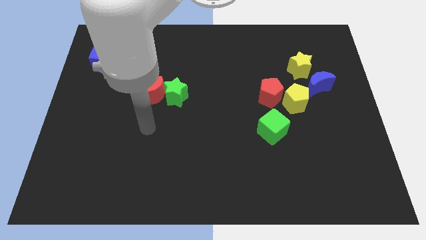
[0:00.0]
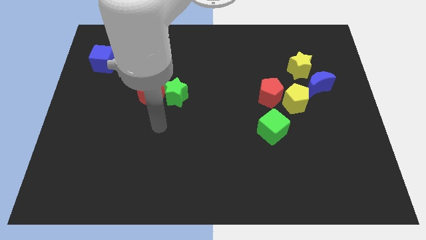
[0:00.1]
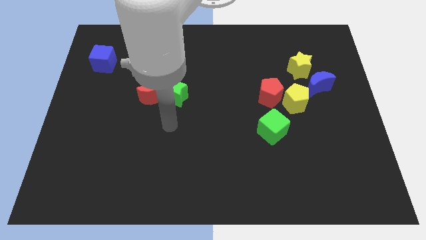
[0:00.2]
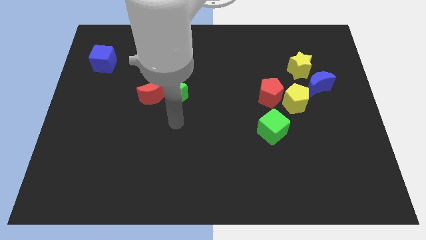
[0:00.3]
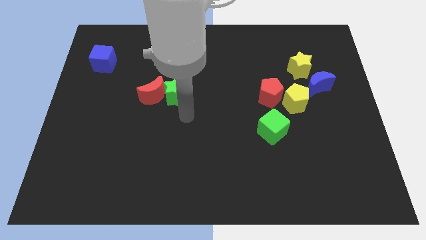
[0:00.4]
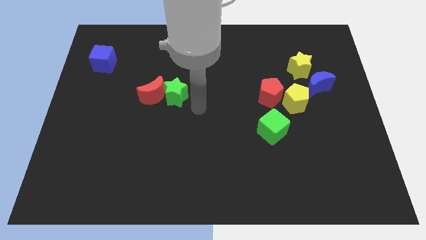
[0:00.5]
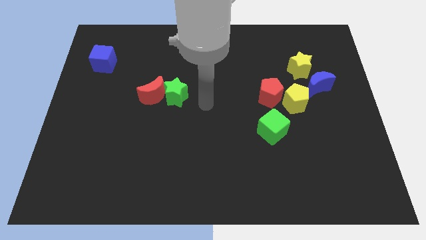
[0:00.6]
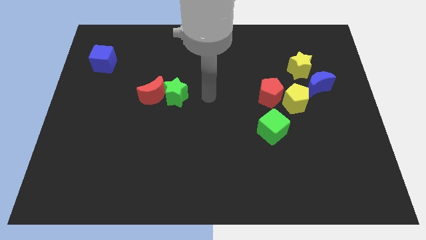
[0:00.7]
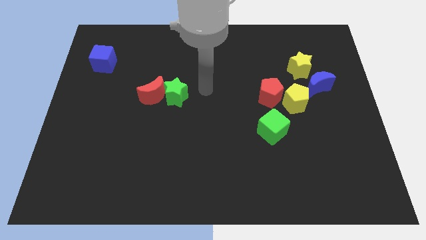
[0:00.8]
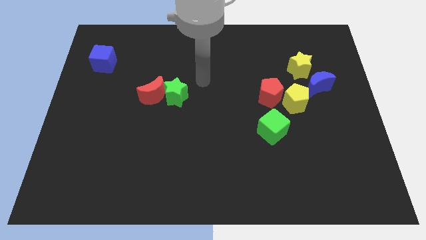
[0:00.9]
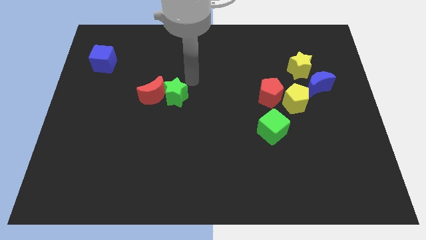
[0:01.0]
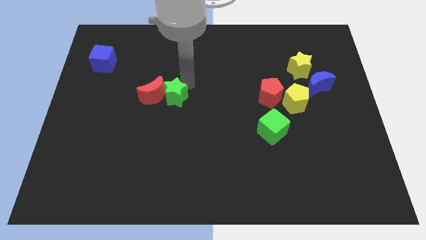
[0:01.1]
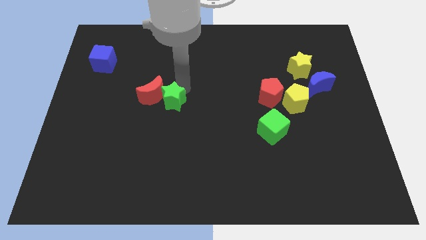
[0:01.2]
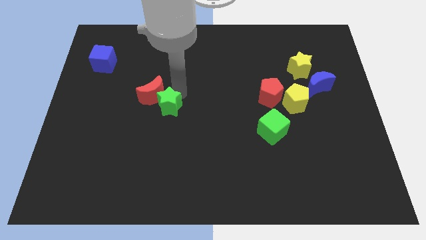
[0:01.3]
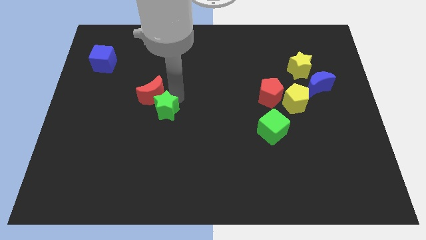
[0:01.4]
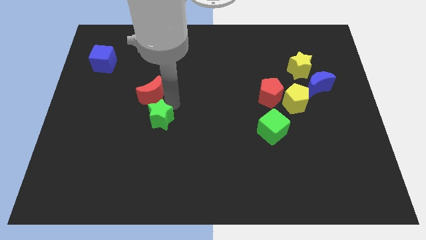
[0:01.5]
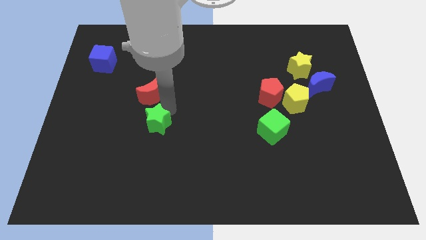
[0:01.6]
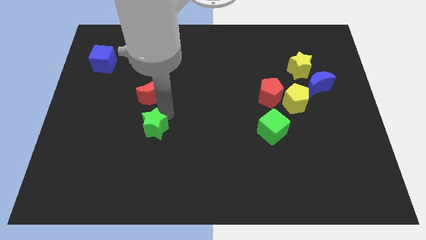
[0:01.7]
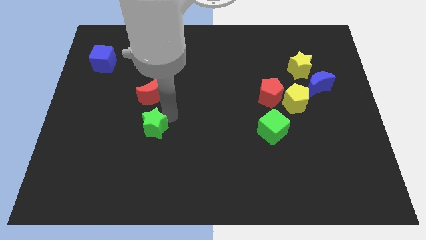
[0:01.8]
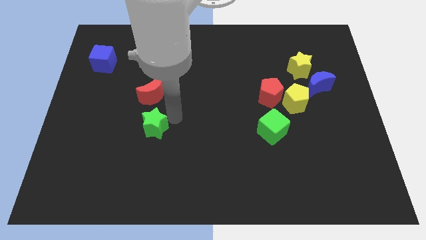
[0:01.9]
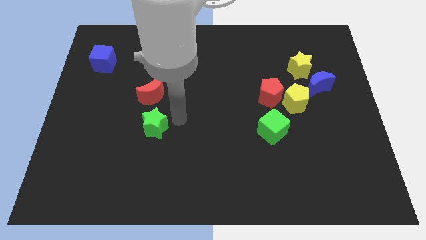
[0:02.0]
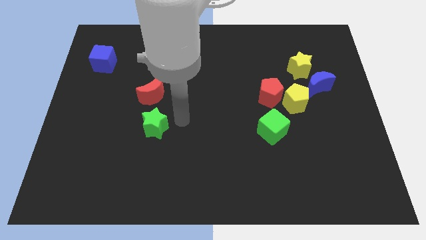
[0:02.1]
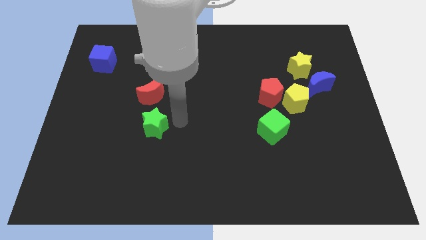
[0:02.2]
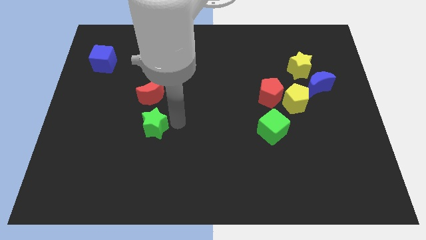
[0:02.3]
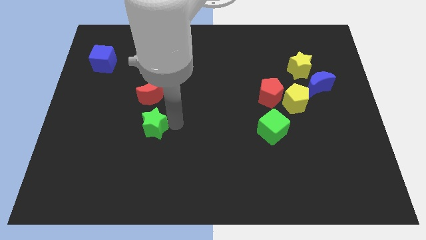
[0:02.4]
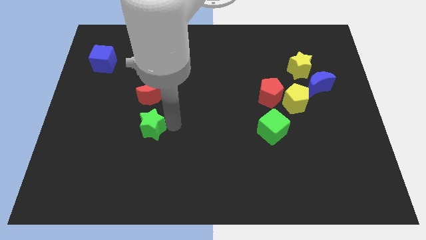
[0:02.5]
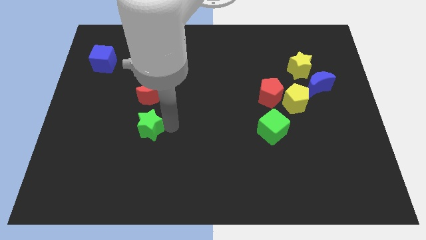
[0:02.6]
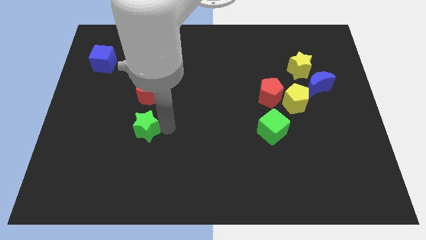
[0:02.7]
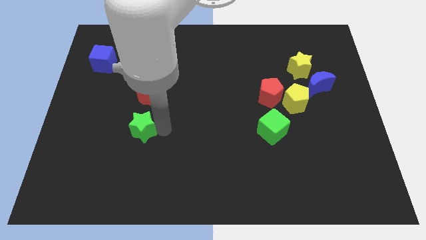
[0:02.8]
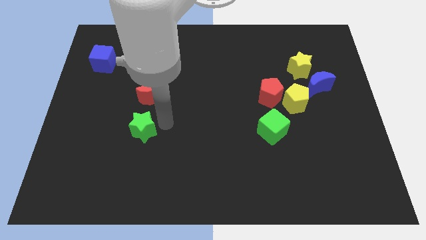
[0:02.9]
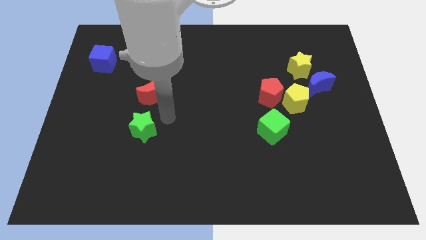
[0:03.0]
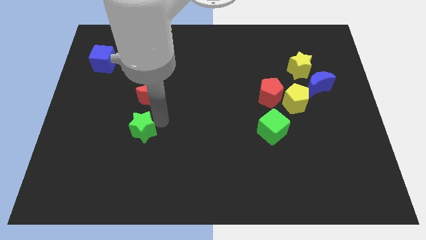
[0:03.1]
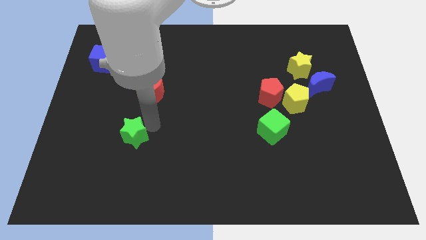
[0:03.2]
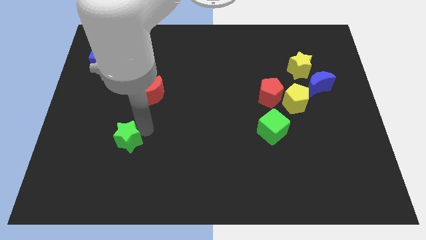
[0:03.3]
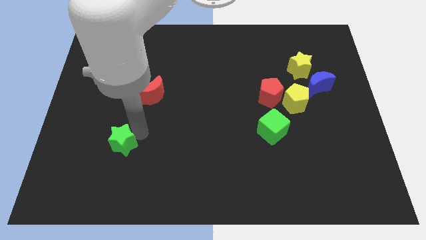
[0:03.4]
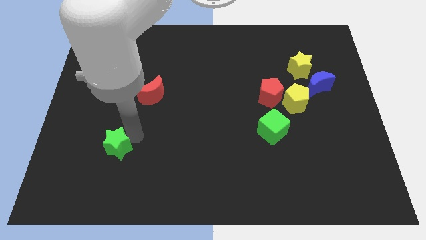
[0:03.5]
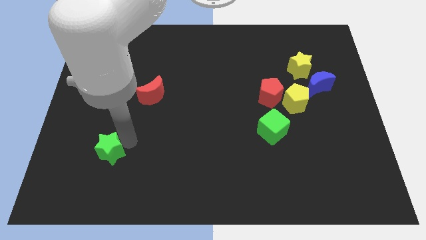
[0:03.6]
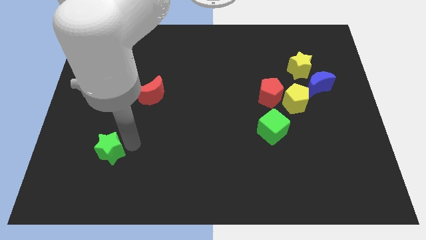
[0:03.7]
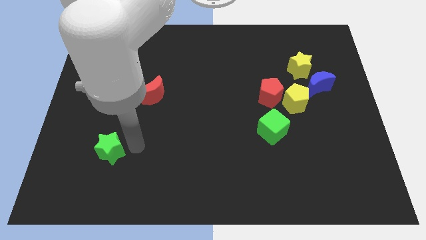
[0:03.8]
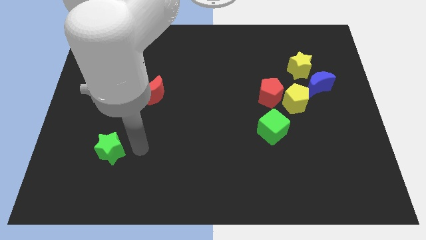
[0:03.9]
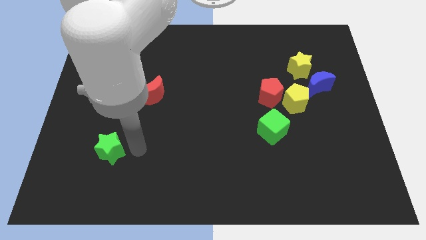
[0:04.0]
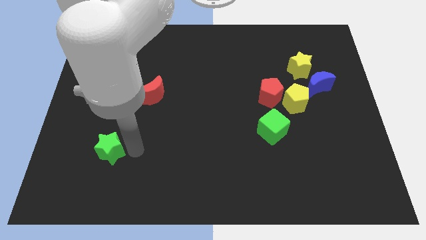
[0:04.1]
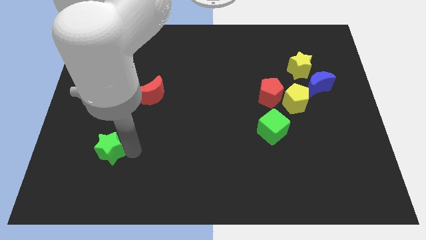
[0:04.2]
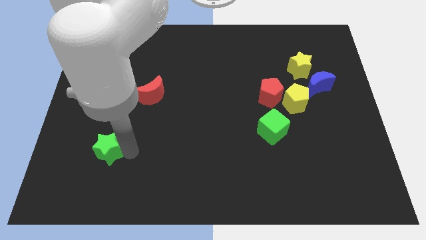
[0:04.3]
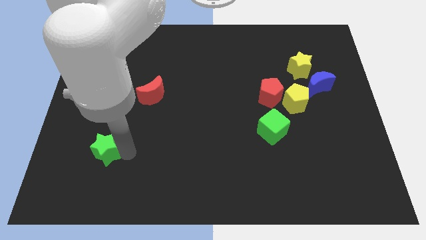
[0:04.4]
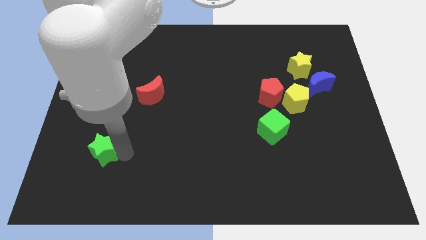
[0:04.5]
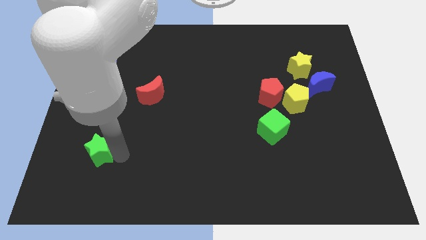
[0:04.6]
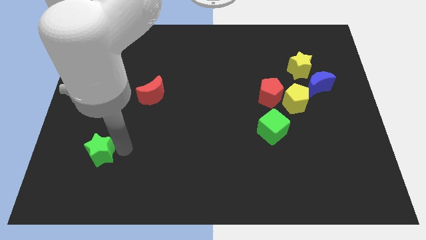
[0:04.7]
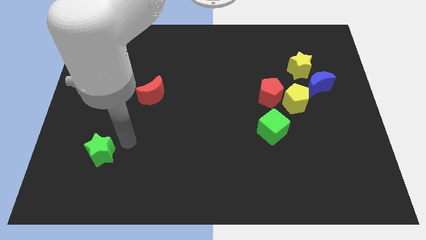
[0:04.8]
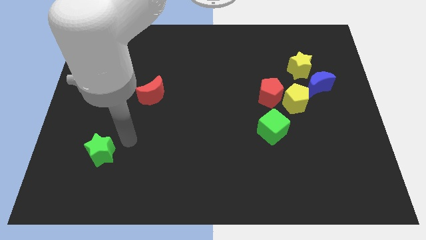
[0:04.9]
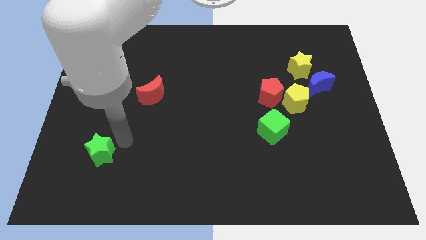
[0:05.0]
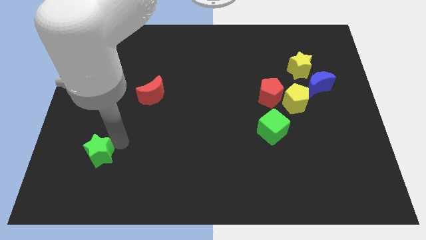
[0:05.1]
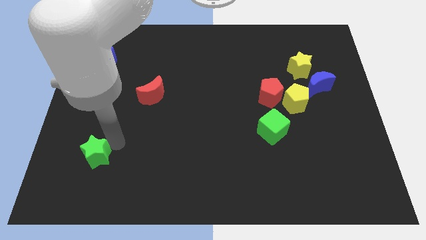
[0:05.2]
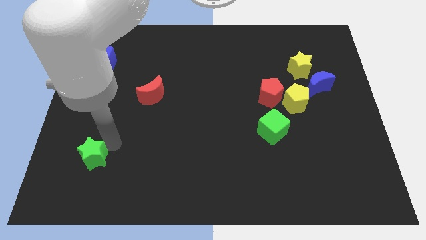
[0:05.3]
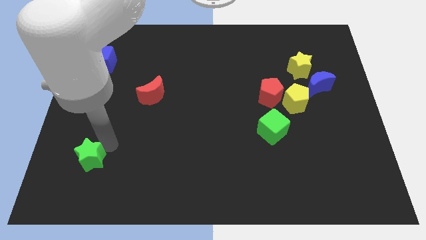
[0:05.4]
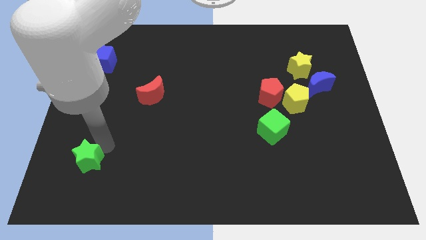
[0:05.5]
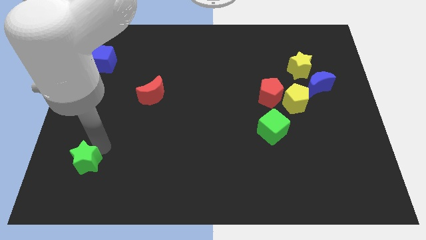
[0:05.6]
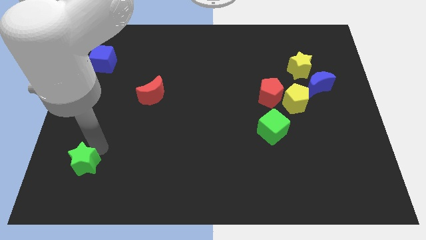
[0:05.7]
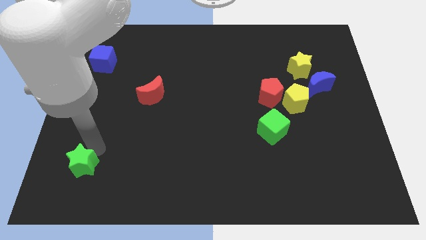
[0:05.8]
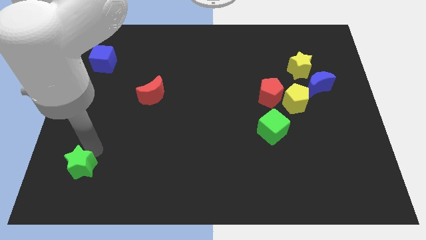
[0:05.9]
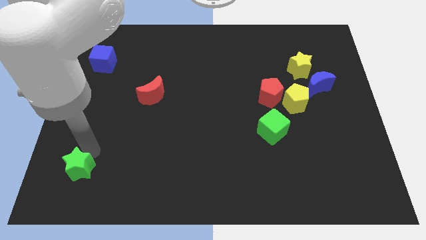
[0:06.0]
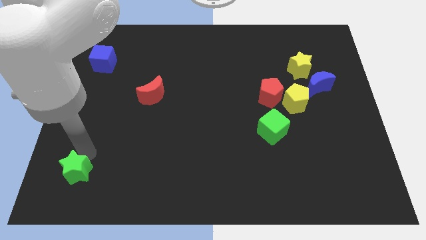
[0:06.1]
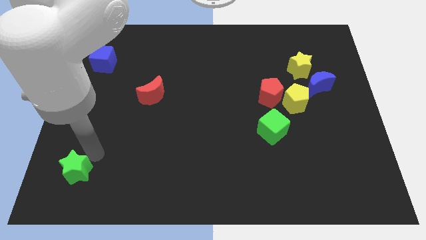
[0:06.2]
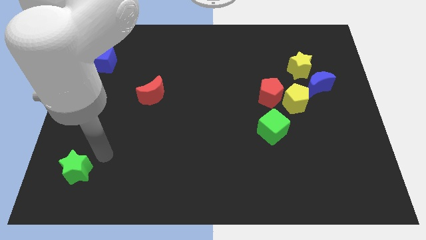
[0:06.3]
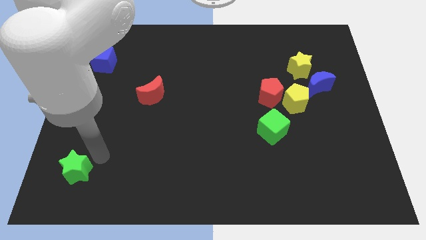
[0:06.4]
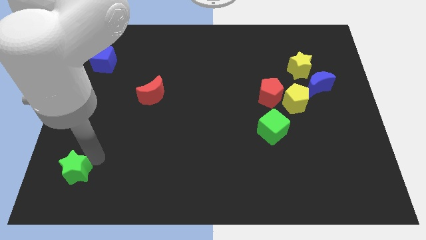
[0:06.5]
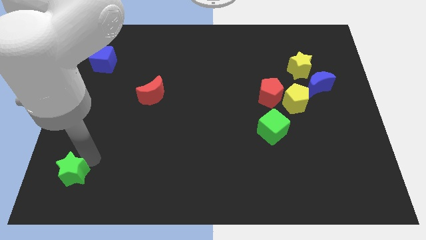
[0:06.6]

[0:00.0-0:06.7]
push the green star to the bottom left of the board

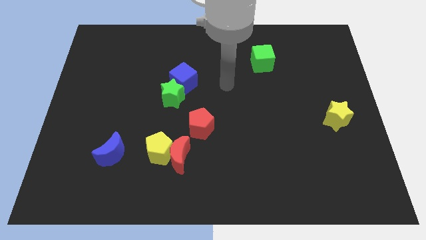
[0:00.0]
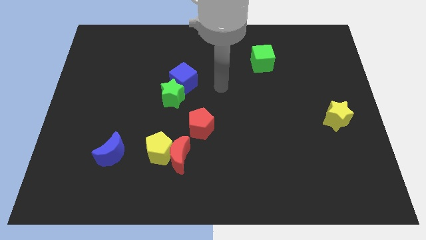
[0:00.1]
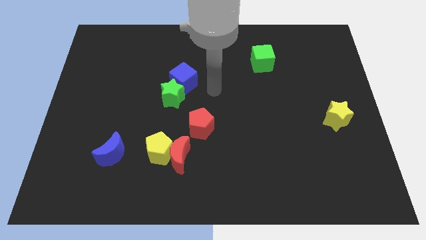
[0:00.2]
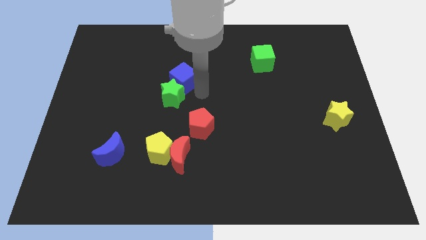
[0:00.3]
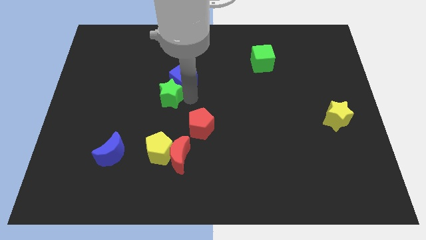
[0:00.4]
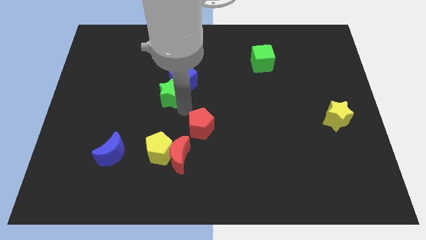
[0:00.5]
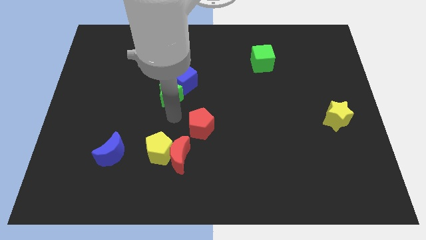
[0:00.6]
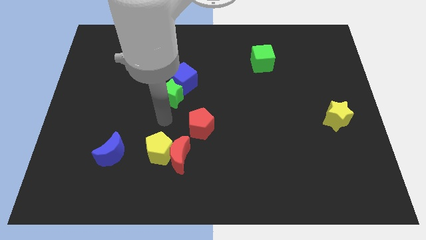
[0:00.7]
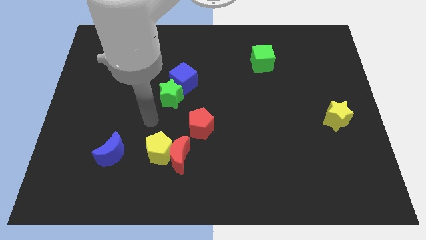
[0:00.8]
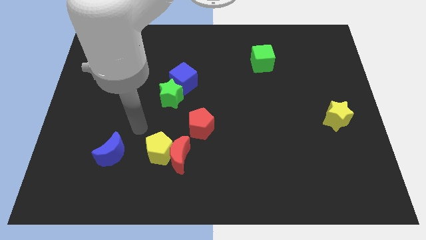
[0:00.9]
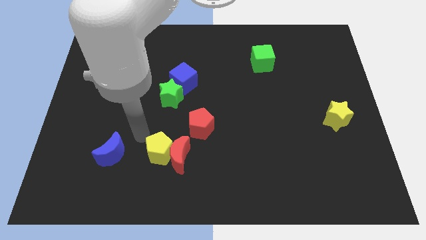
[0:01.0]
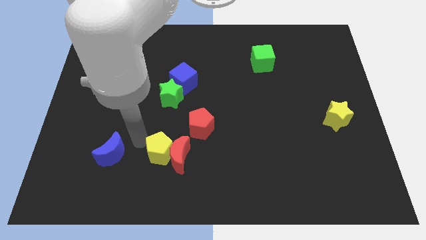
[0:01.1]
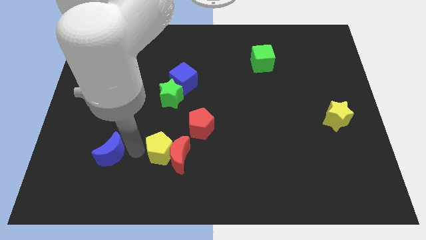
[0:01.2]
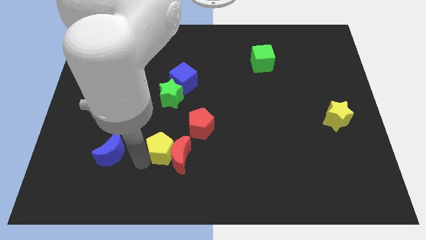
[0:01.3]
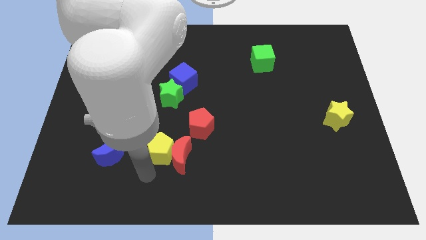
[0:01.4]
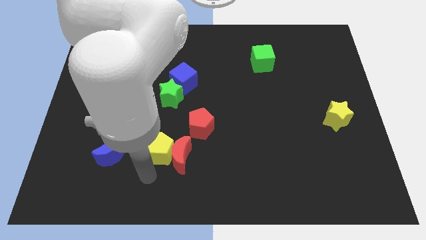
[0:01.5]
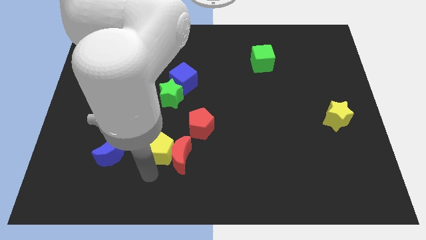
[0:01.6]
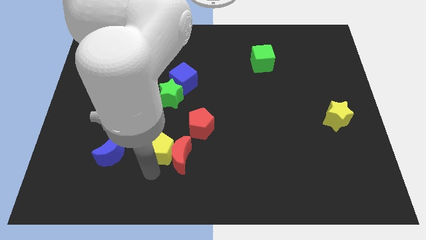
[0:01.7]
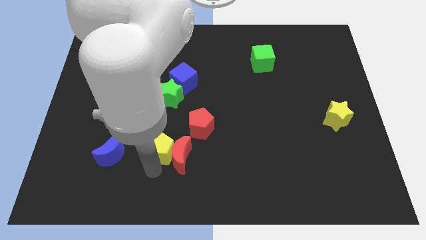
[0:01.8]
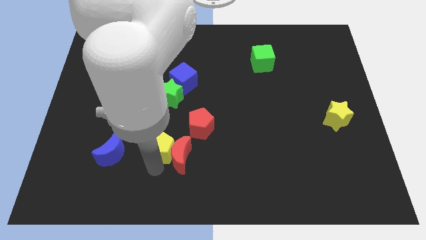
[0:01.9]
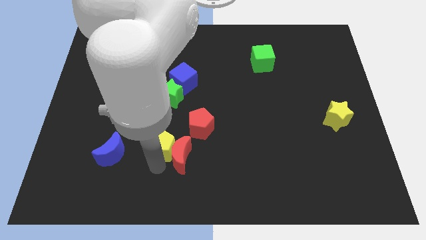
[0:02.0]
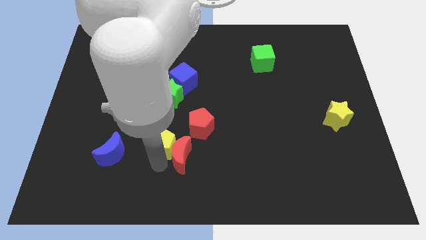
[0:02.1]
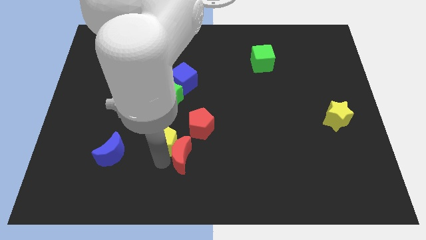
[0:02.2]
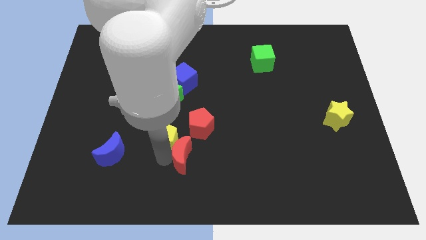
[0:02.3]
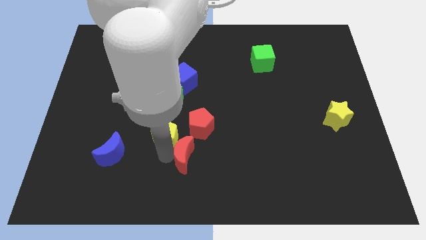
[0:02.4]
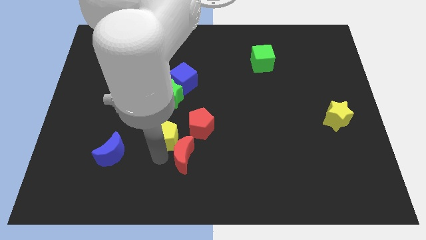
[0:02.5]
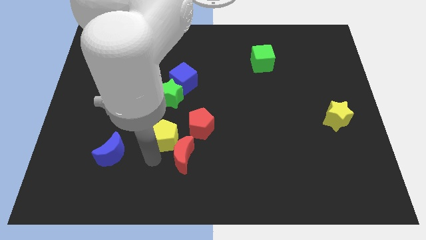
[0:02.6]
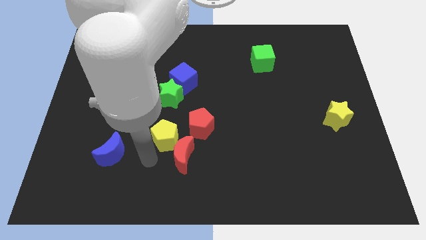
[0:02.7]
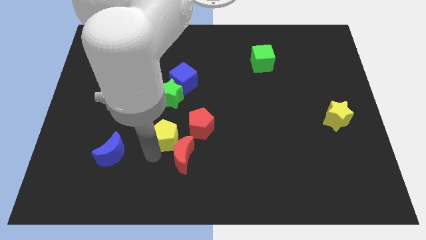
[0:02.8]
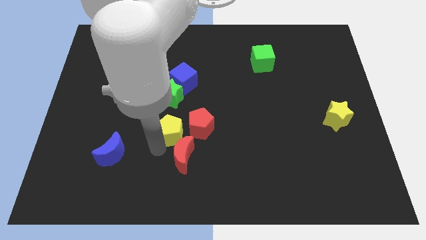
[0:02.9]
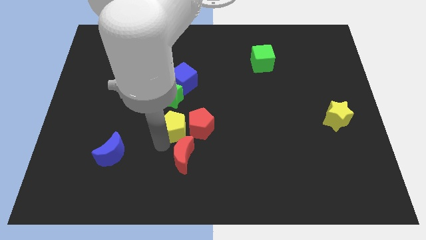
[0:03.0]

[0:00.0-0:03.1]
put the yellow pentagon to the center
